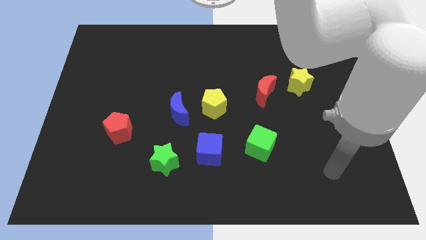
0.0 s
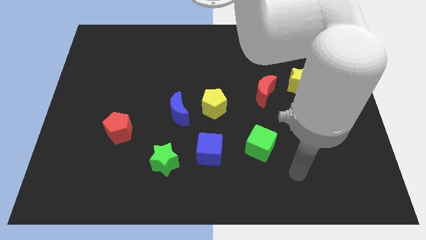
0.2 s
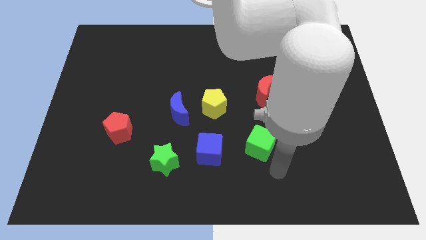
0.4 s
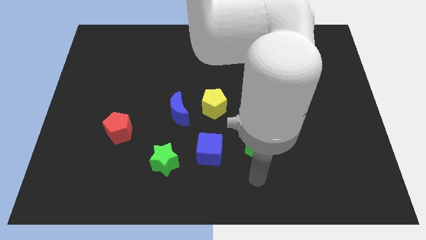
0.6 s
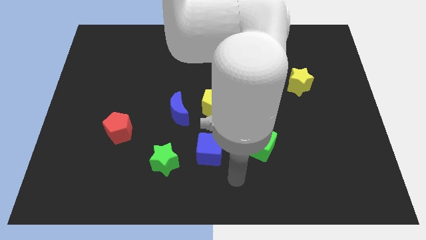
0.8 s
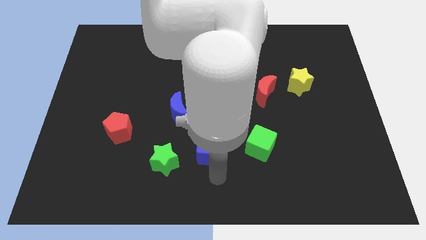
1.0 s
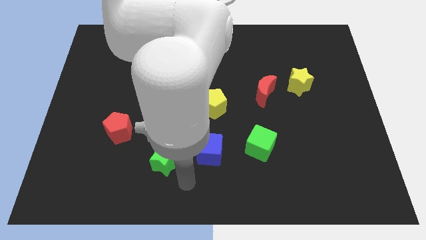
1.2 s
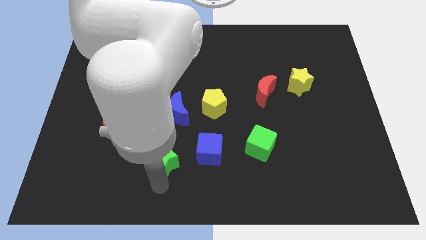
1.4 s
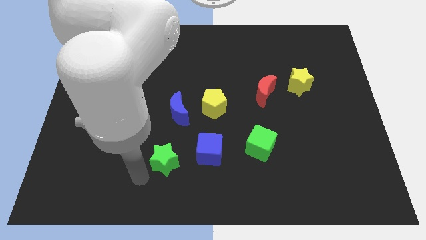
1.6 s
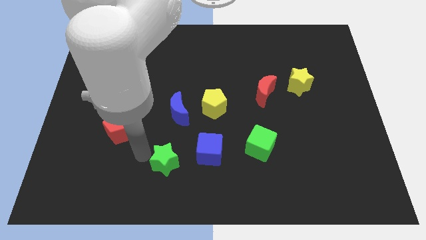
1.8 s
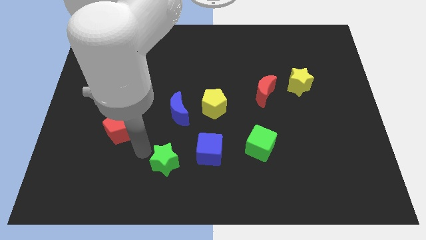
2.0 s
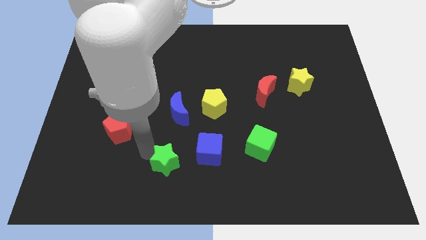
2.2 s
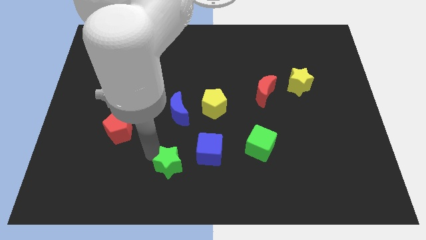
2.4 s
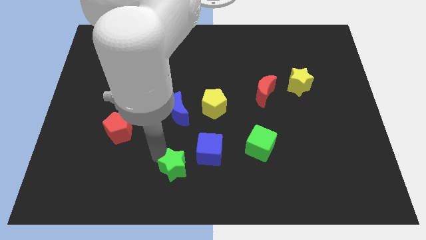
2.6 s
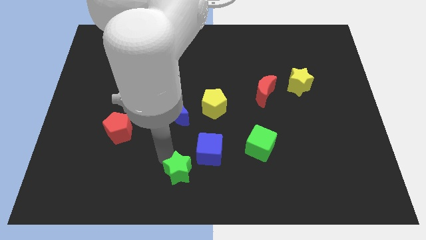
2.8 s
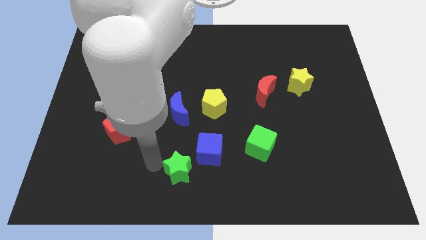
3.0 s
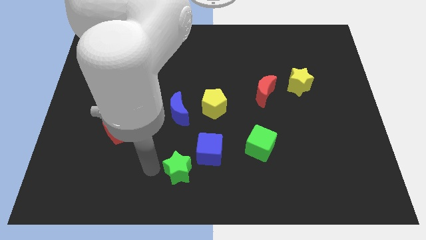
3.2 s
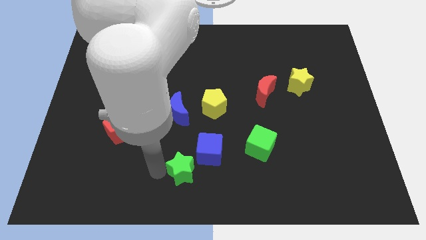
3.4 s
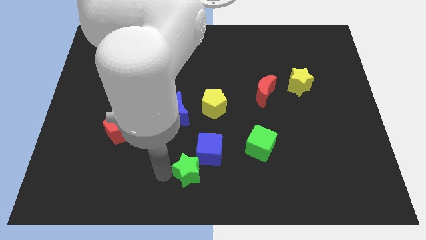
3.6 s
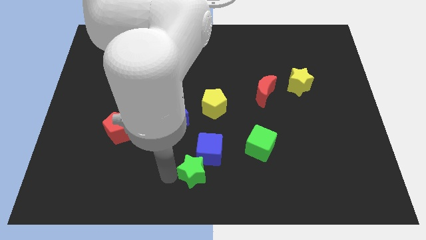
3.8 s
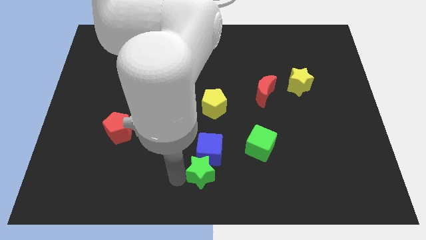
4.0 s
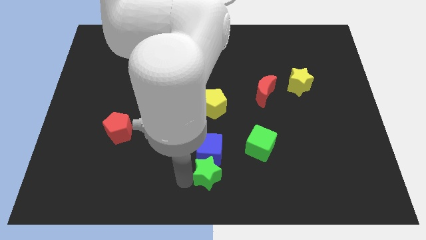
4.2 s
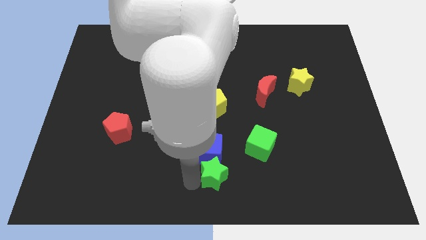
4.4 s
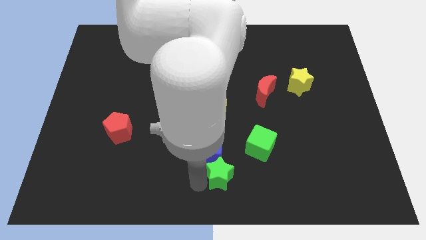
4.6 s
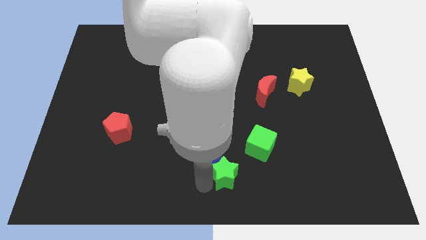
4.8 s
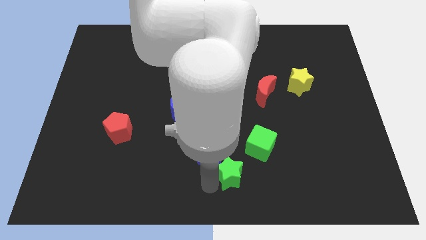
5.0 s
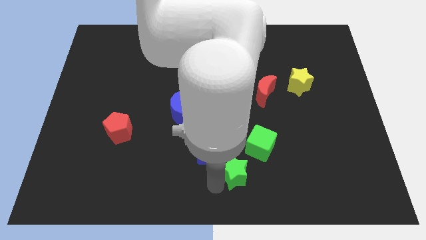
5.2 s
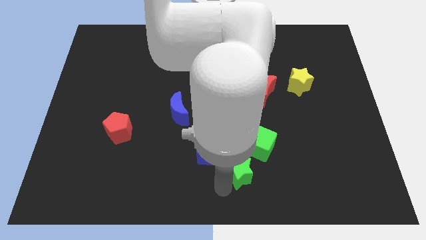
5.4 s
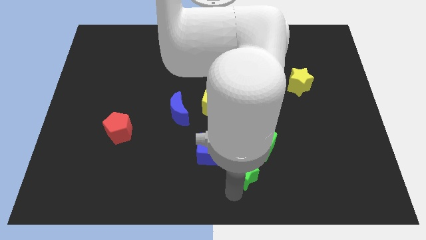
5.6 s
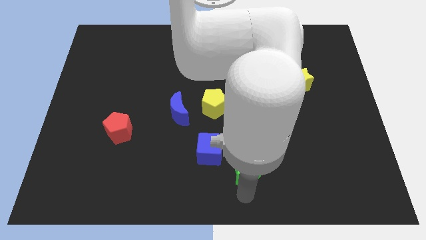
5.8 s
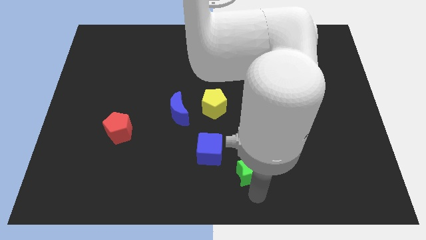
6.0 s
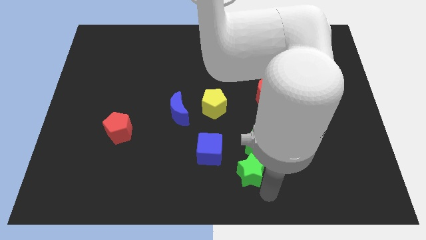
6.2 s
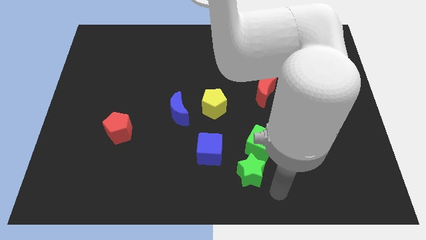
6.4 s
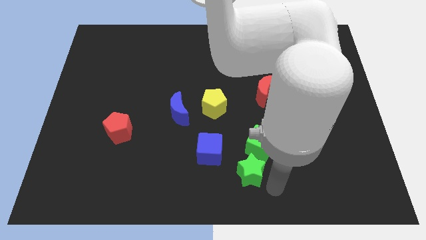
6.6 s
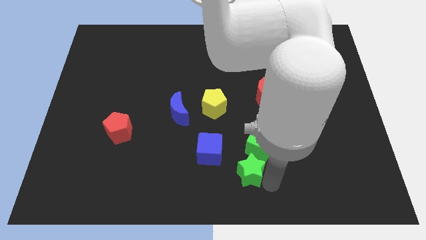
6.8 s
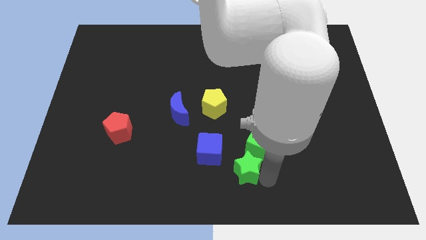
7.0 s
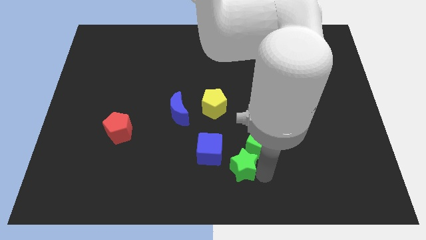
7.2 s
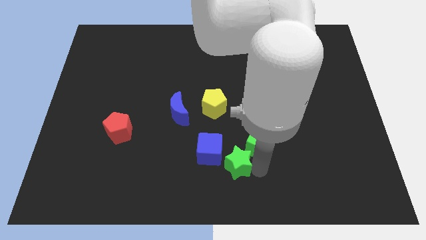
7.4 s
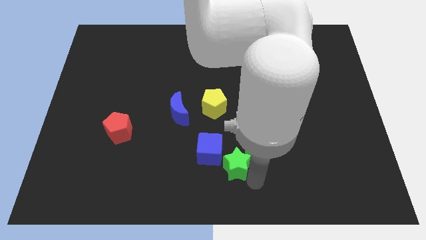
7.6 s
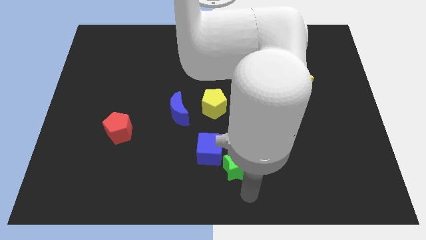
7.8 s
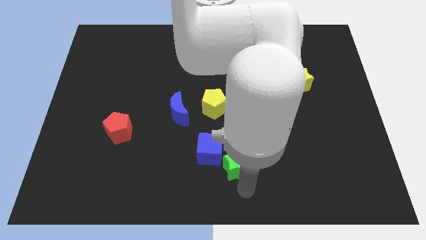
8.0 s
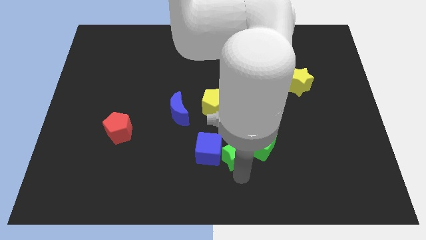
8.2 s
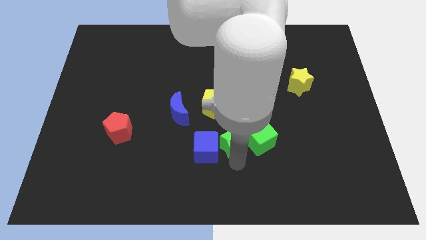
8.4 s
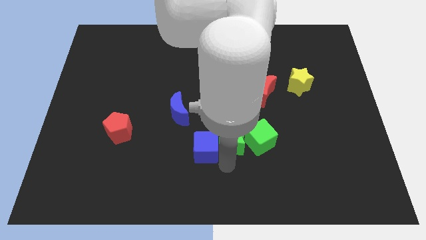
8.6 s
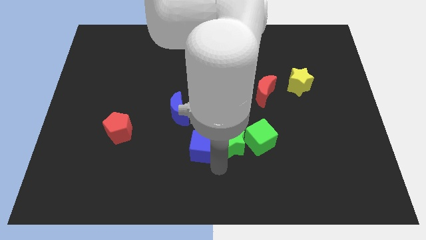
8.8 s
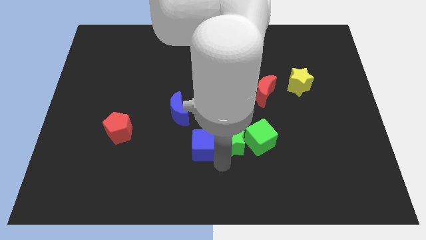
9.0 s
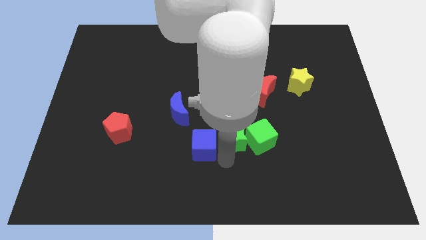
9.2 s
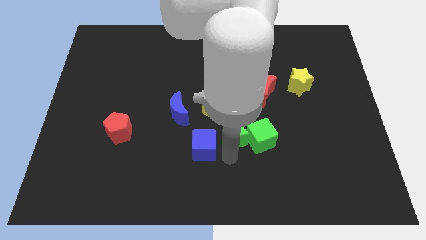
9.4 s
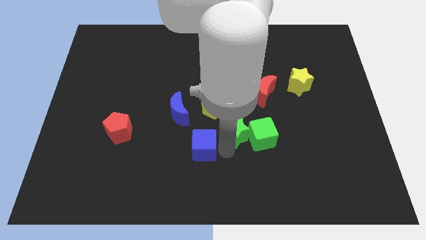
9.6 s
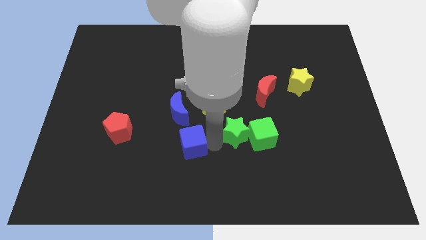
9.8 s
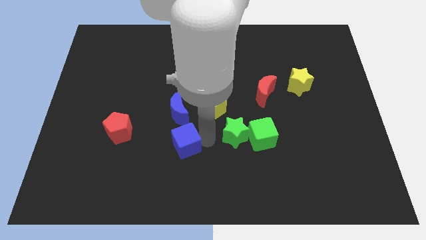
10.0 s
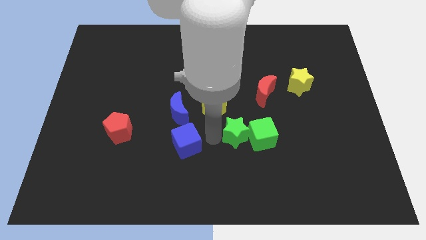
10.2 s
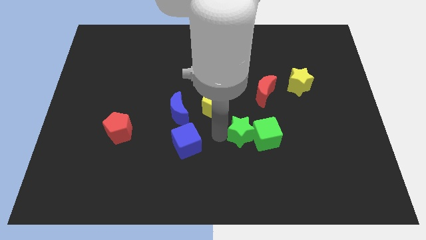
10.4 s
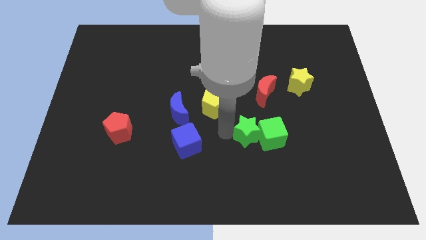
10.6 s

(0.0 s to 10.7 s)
move the green star to the bottom of the red moon

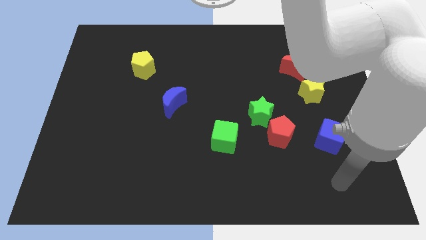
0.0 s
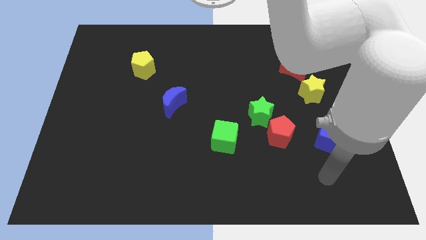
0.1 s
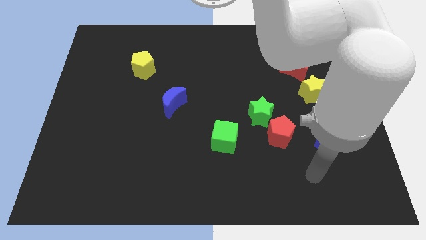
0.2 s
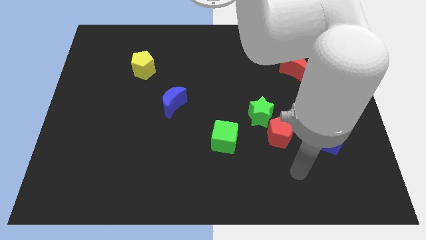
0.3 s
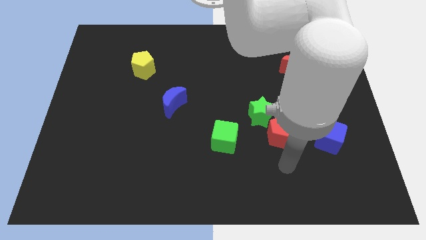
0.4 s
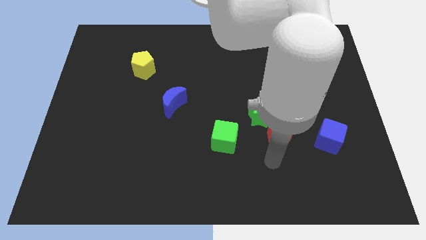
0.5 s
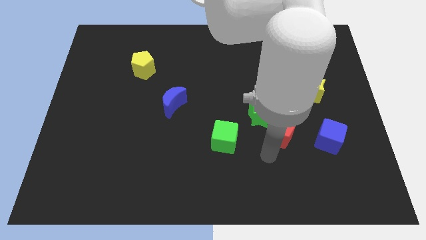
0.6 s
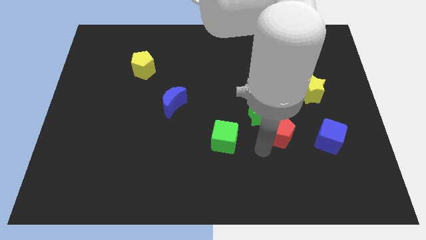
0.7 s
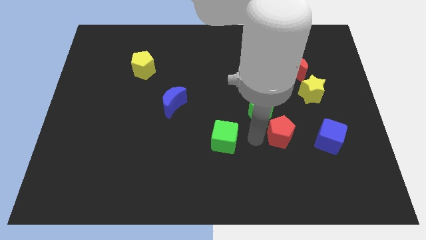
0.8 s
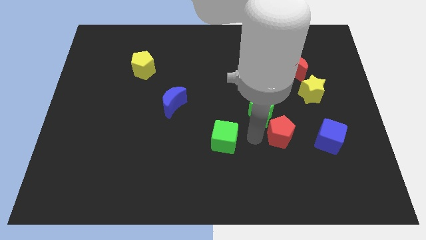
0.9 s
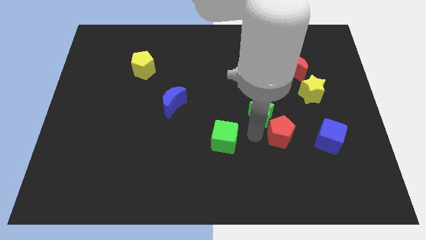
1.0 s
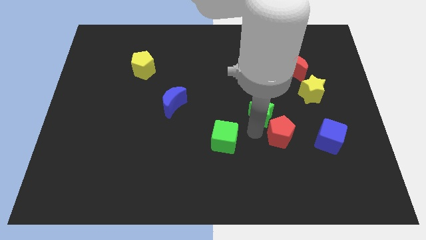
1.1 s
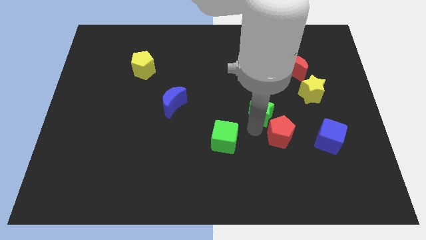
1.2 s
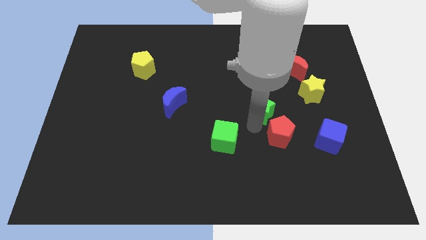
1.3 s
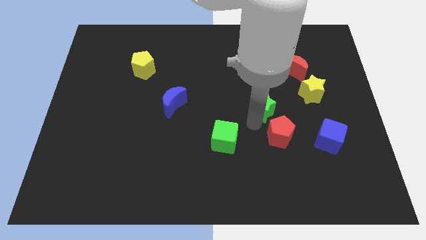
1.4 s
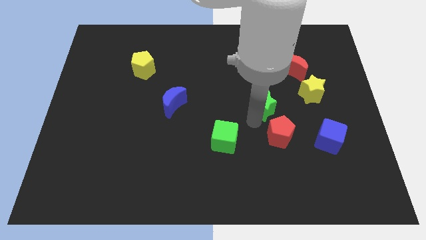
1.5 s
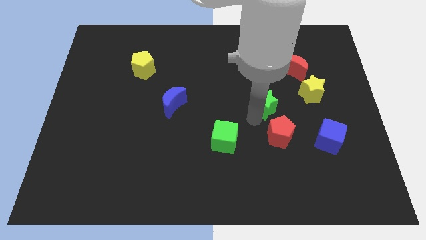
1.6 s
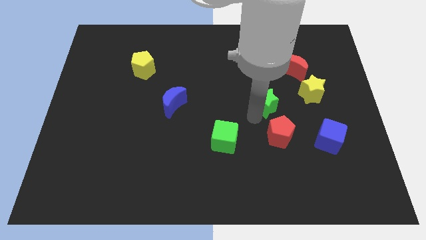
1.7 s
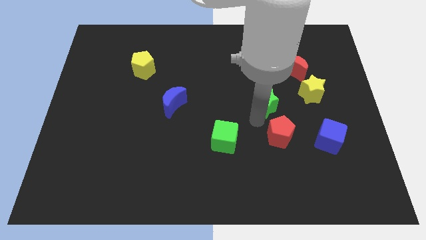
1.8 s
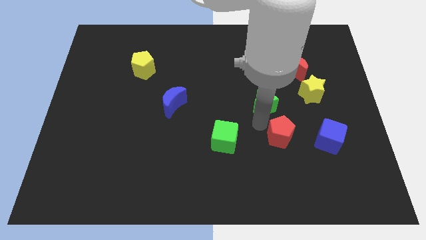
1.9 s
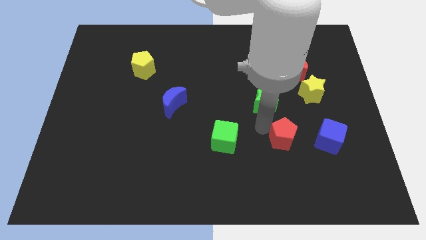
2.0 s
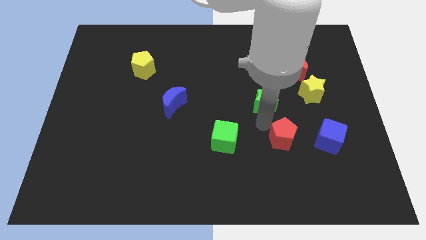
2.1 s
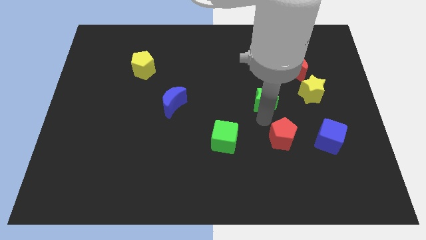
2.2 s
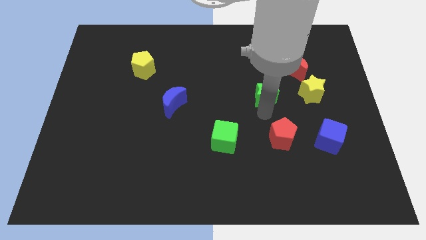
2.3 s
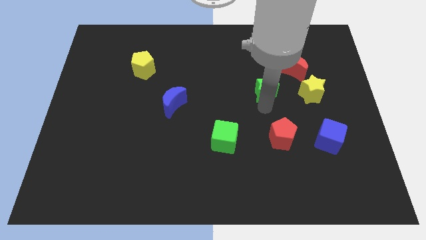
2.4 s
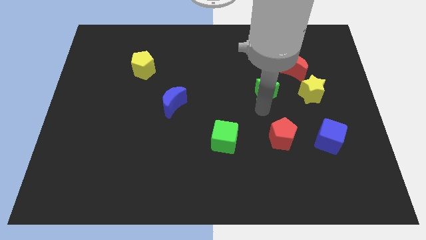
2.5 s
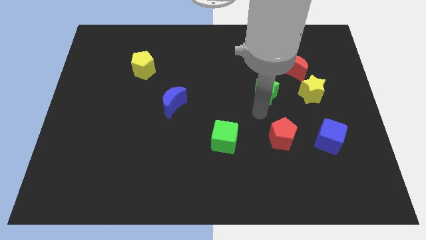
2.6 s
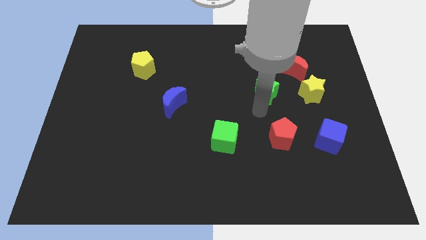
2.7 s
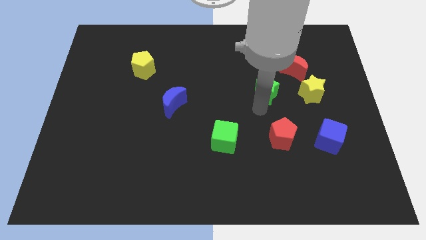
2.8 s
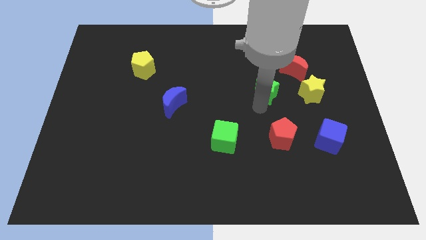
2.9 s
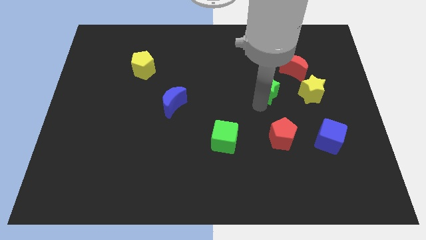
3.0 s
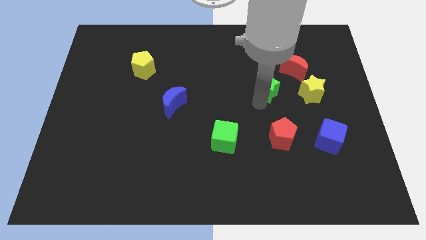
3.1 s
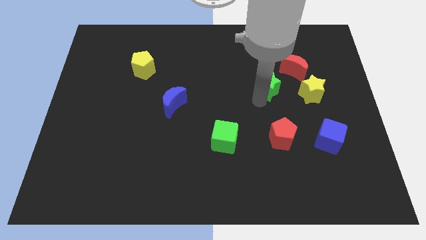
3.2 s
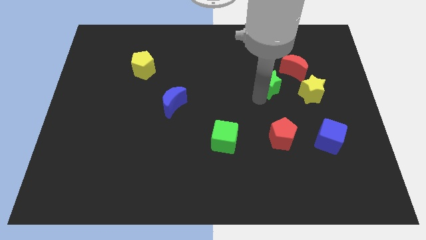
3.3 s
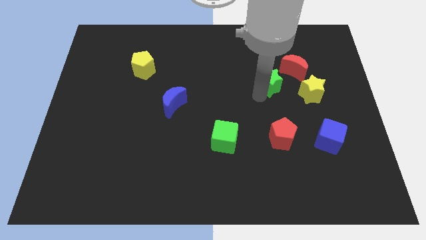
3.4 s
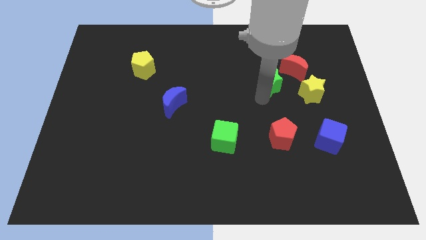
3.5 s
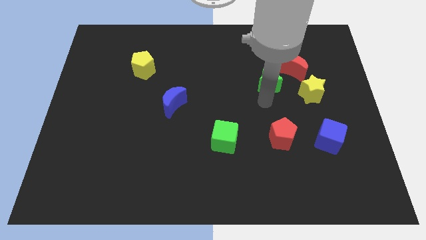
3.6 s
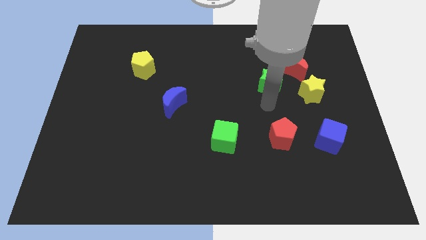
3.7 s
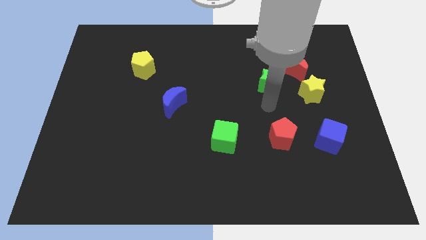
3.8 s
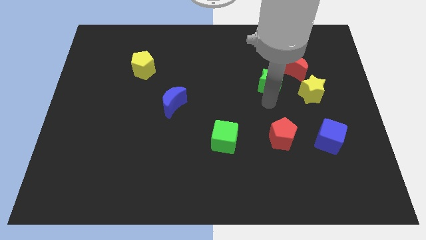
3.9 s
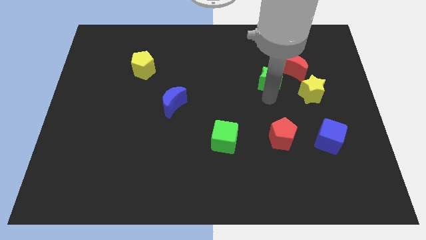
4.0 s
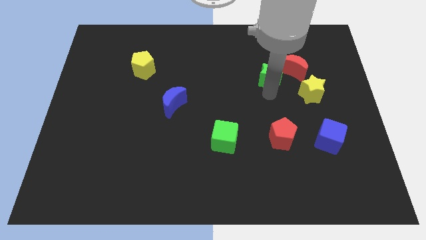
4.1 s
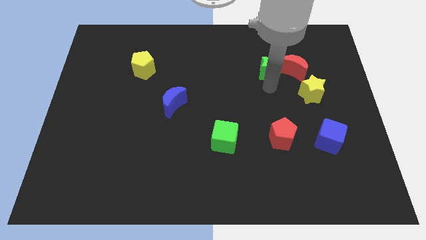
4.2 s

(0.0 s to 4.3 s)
slide the green star diagonally up and to the left of the red moon
